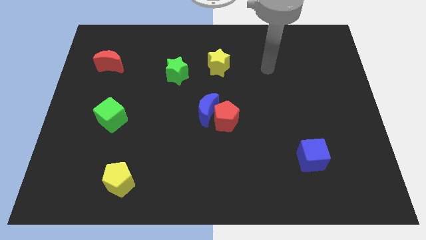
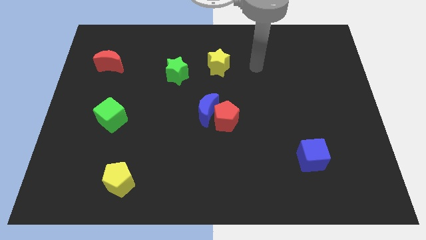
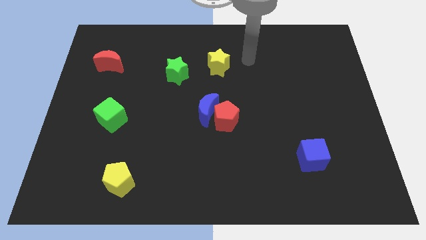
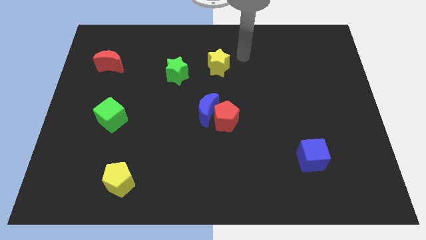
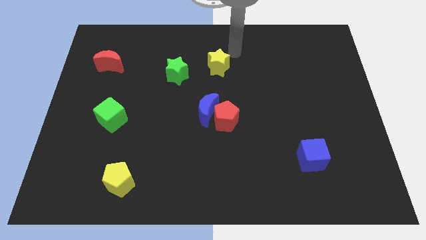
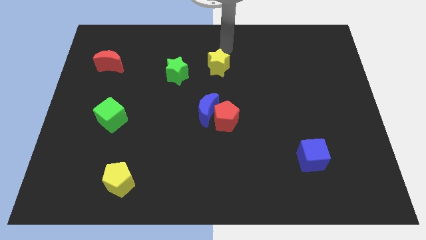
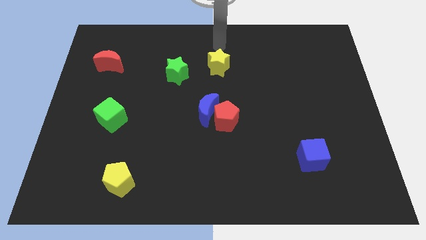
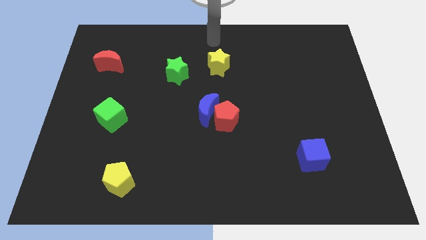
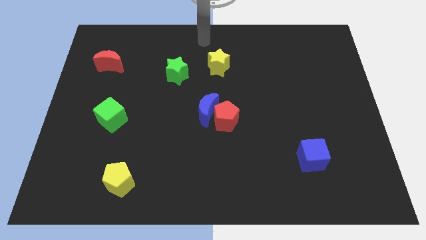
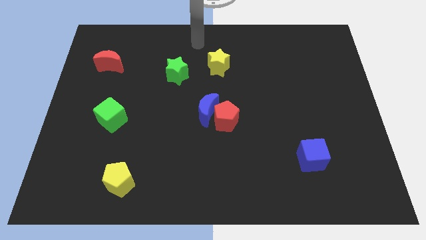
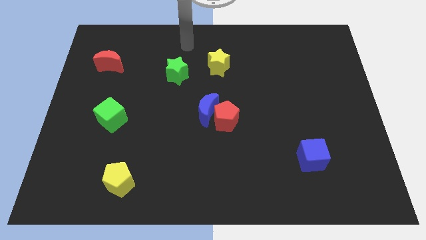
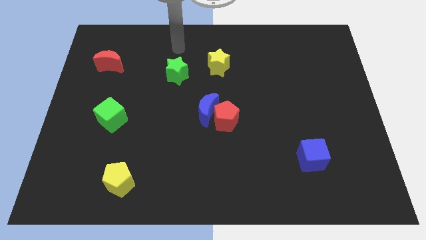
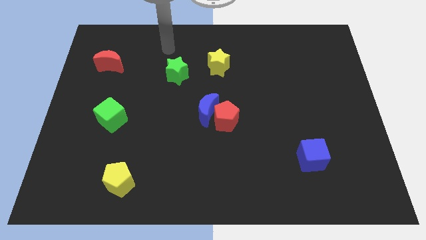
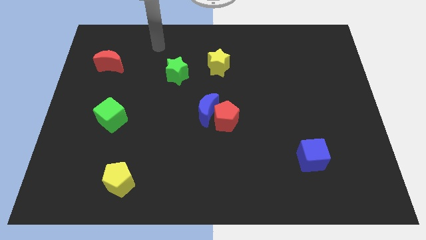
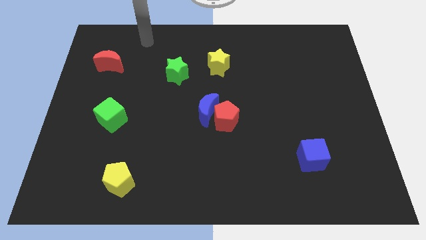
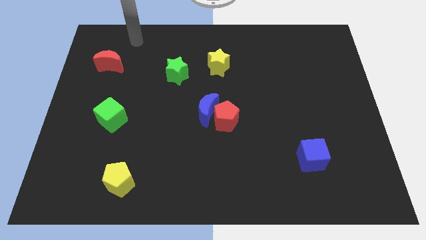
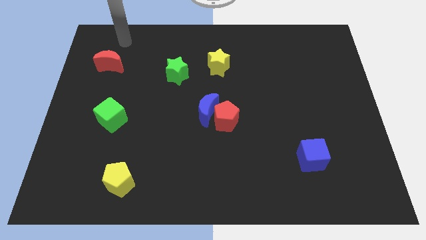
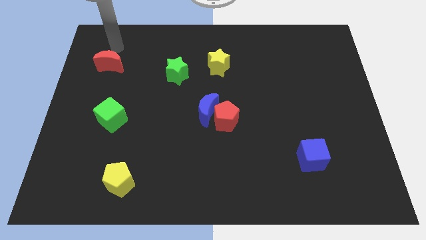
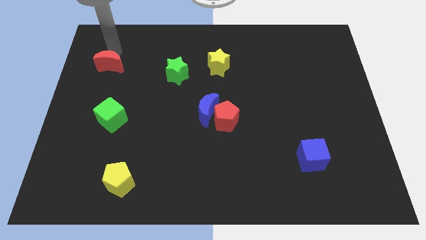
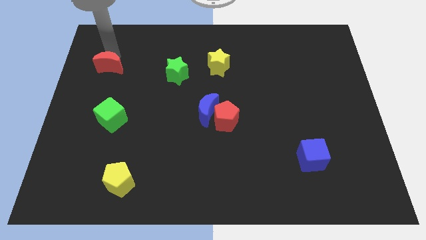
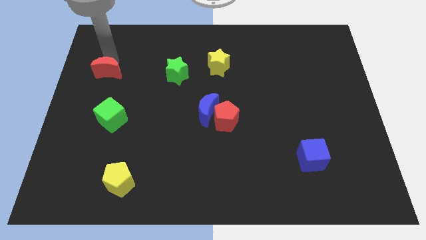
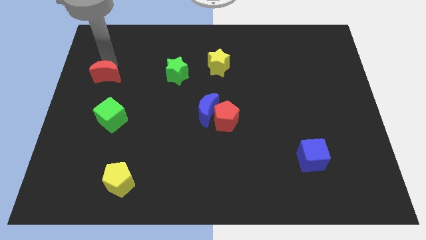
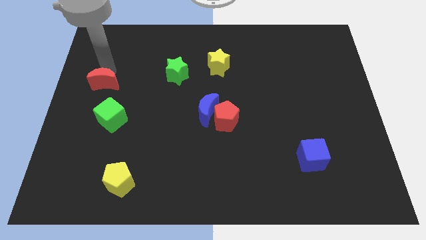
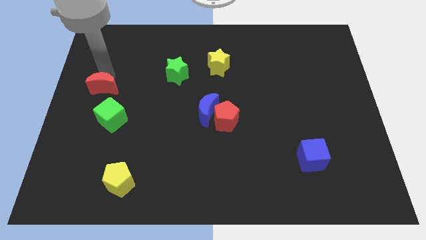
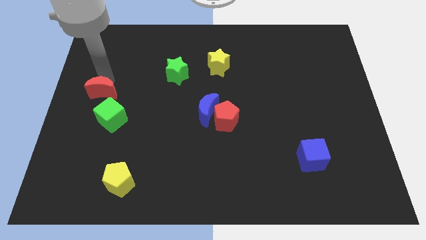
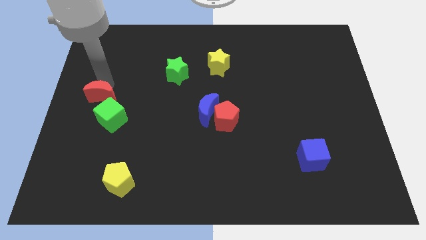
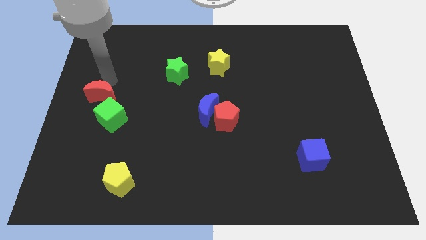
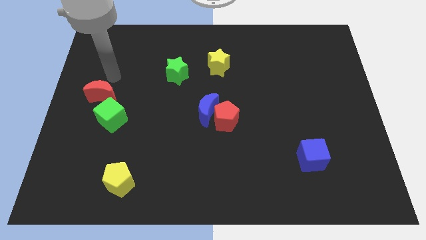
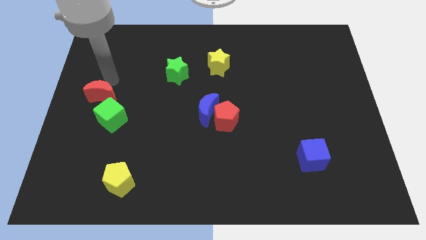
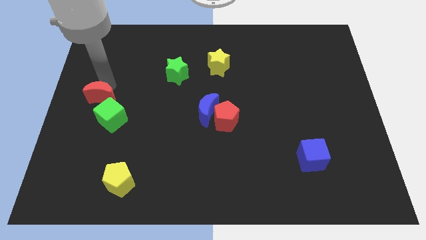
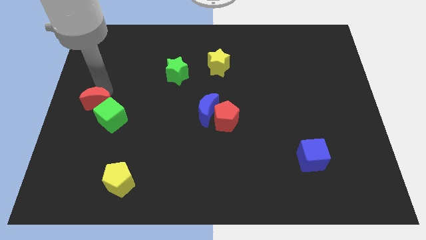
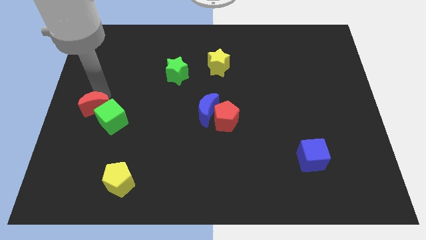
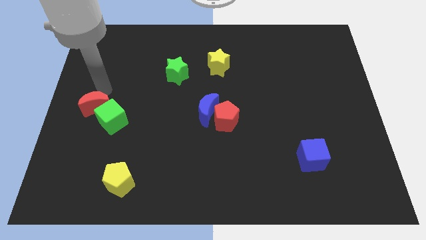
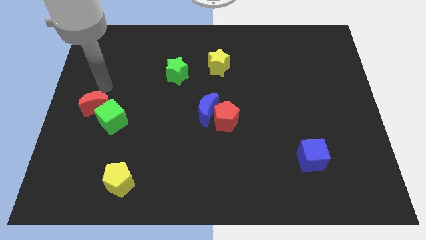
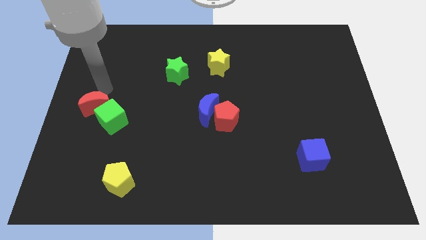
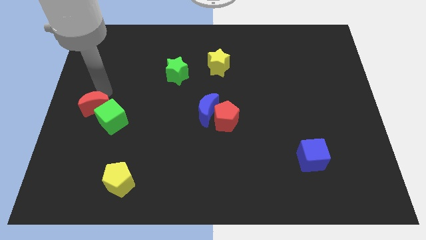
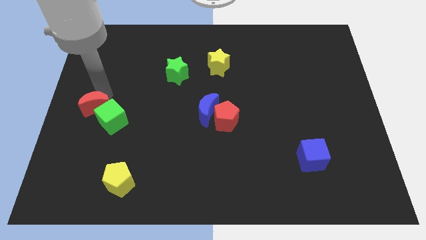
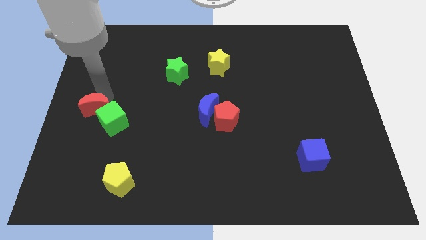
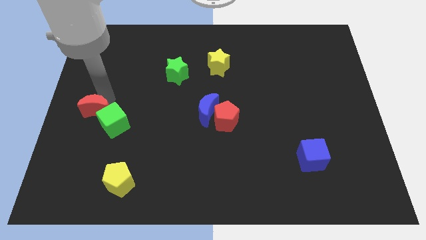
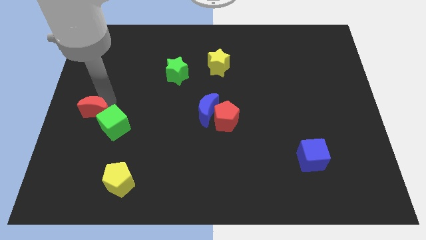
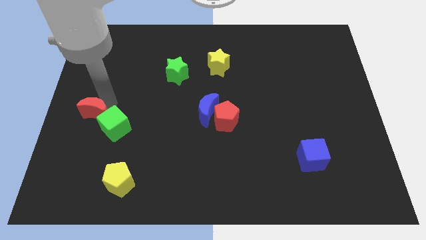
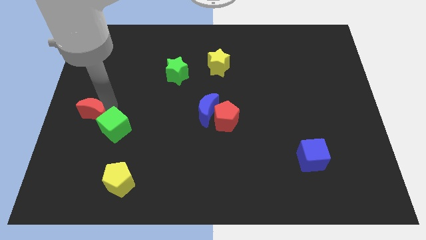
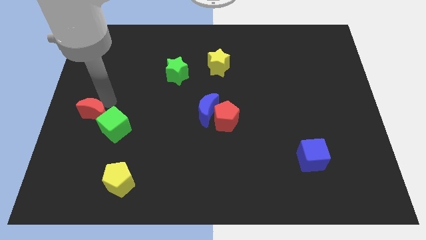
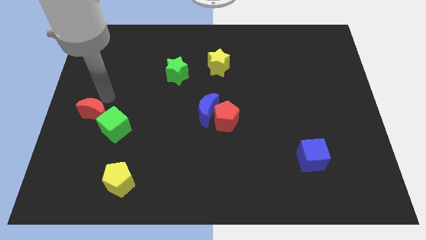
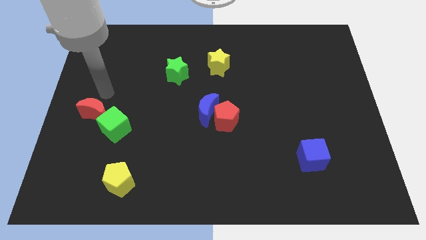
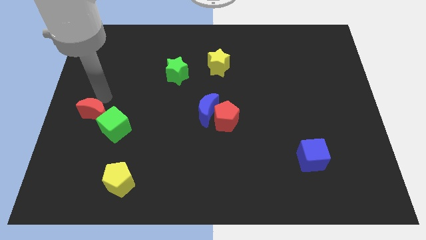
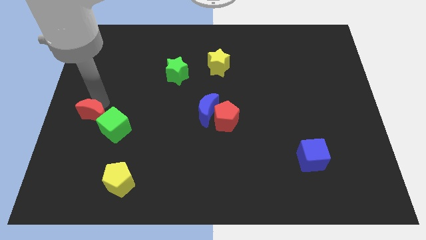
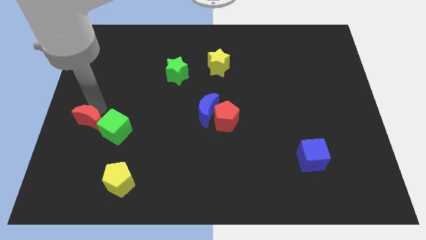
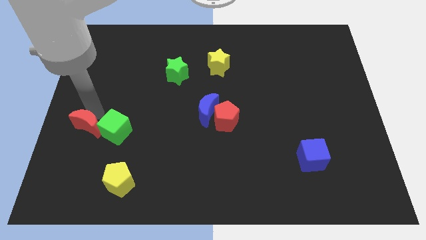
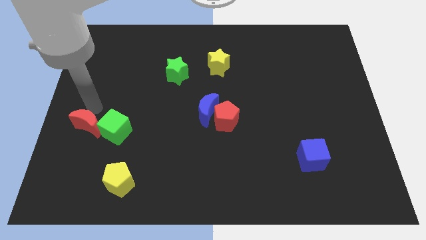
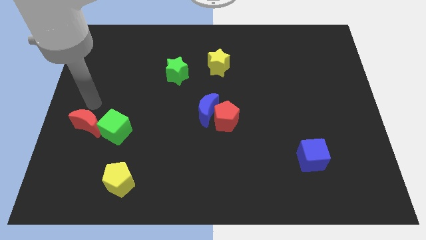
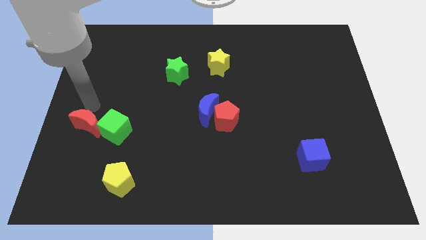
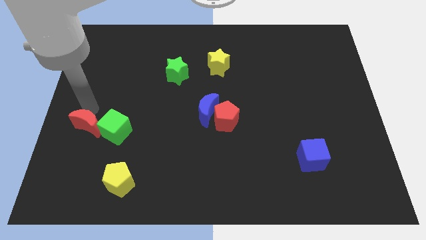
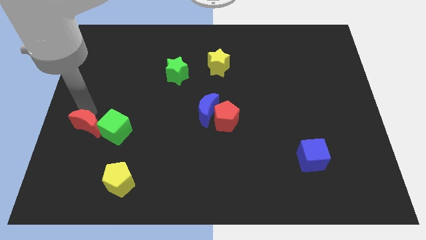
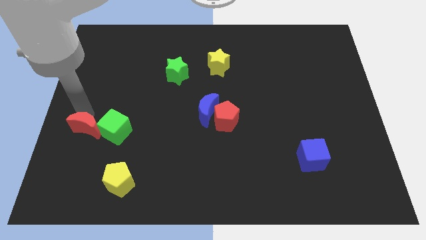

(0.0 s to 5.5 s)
slide the red moon downwards

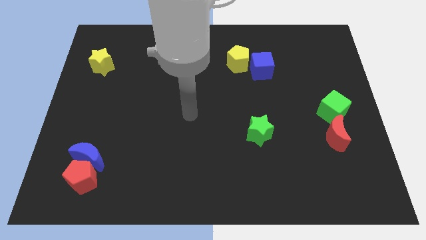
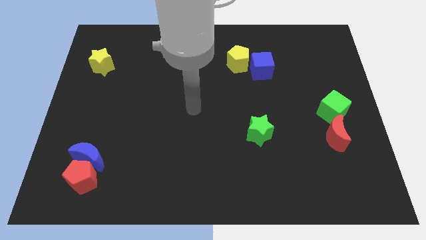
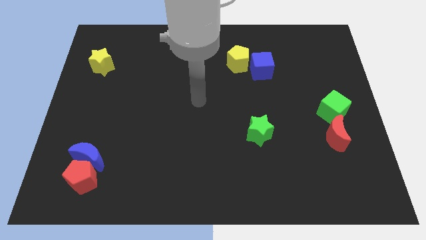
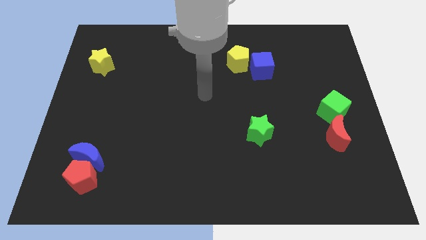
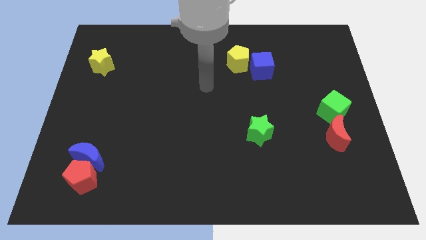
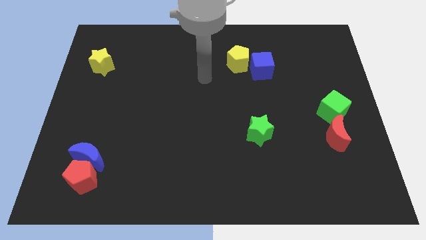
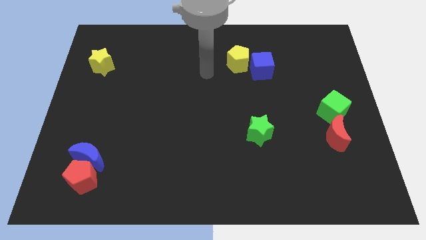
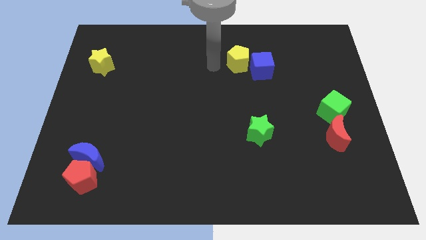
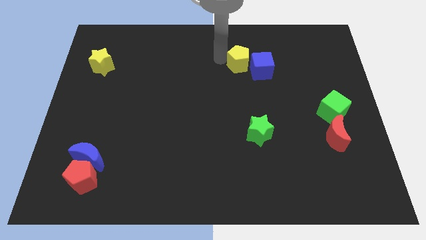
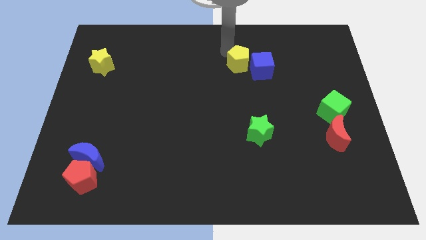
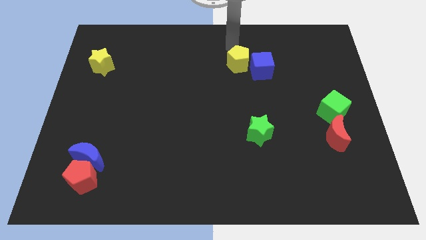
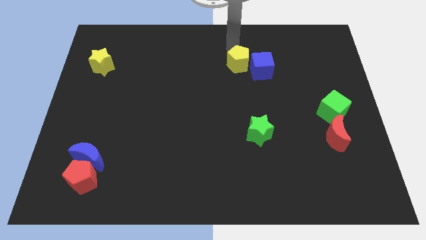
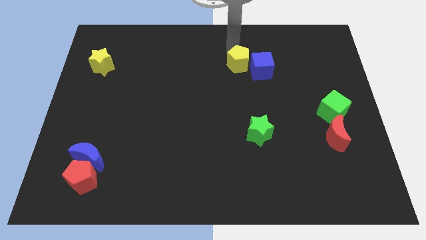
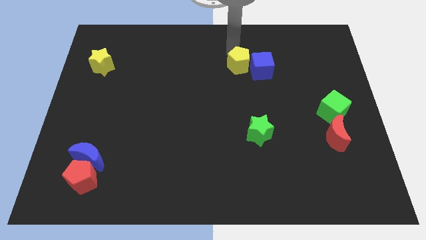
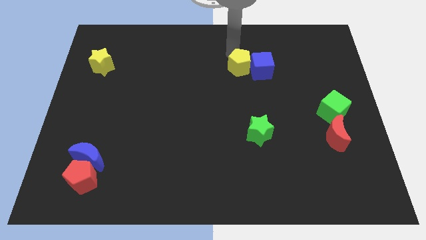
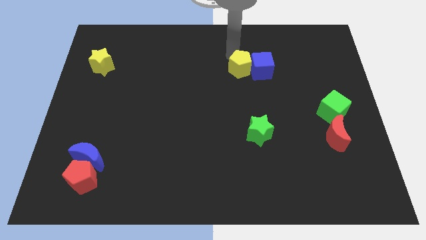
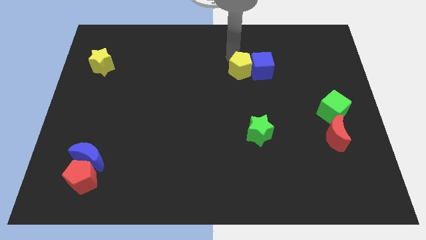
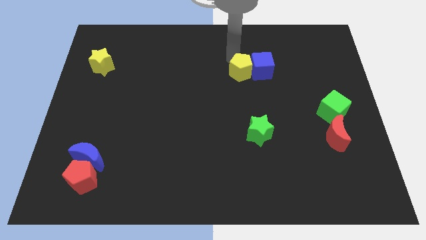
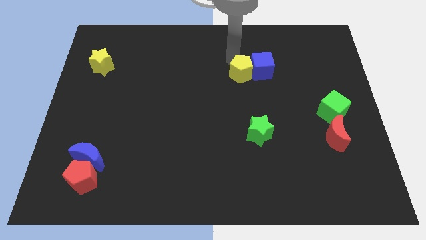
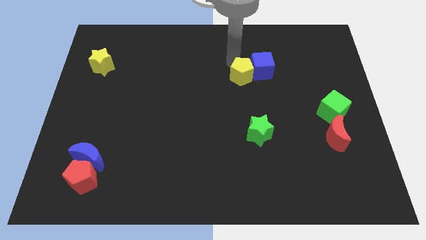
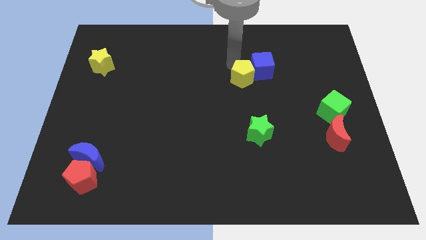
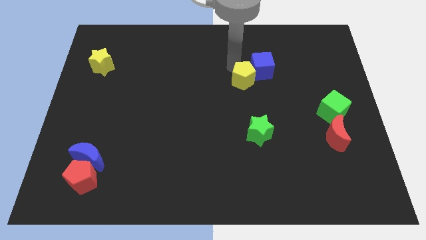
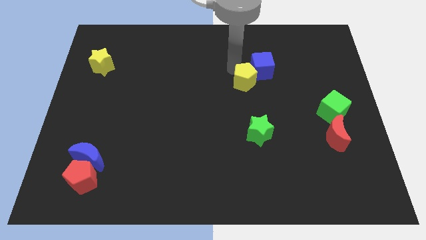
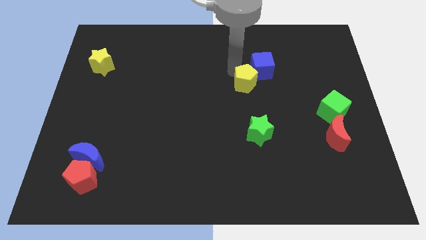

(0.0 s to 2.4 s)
slightly slide the yellow pentagon downwards

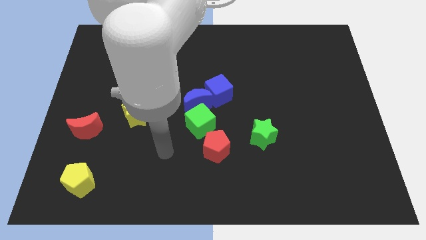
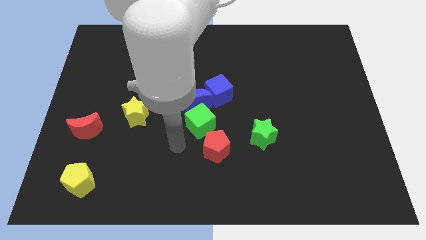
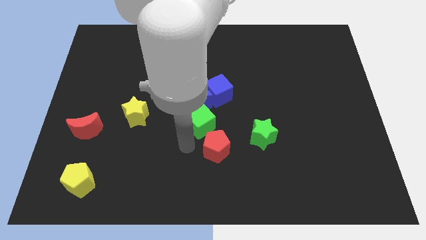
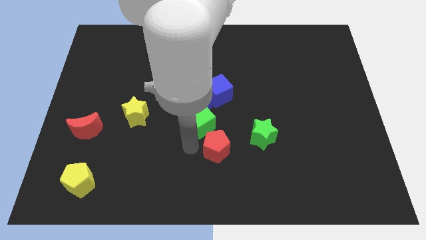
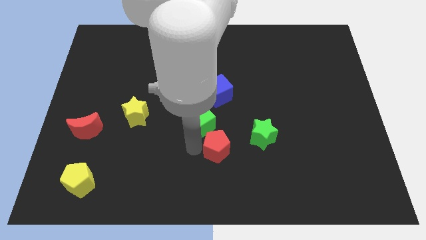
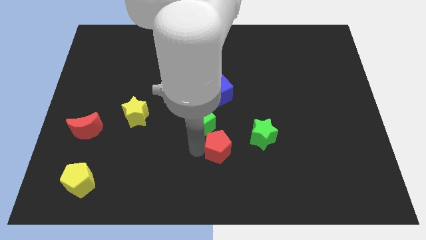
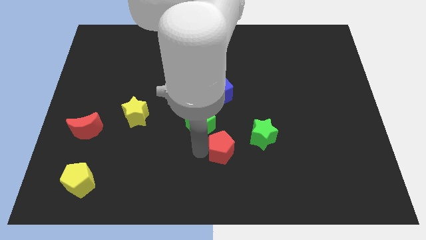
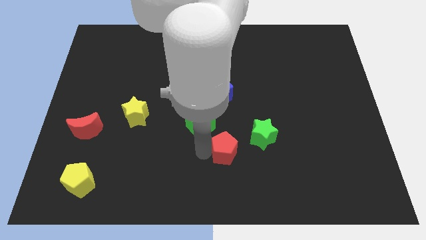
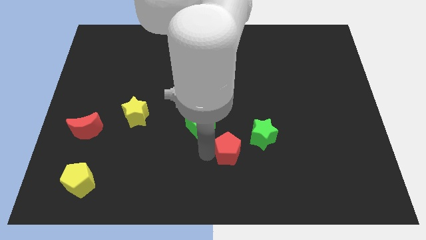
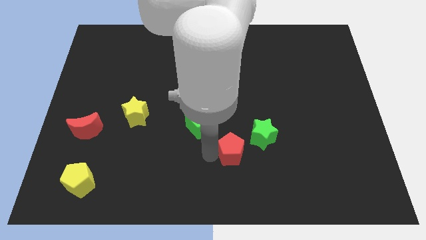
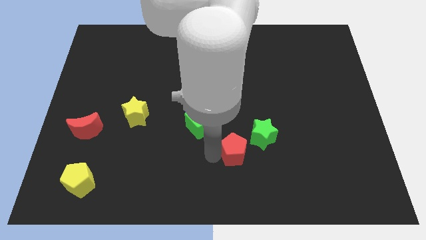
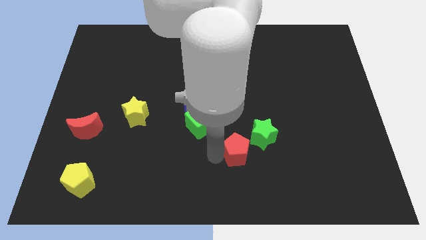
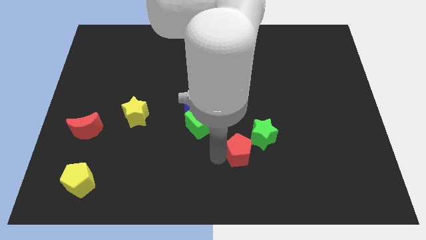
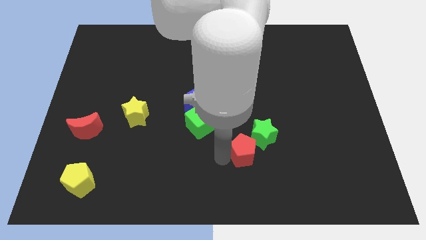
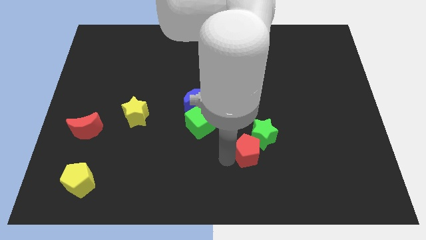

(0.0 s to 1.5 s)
push the red pentagon right a little
